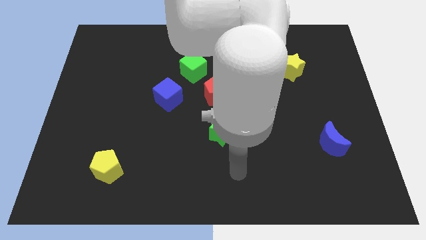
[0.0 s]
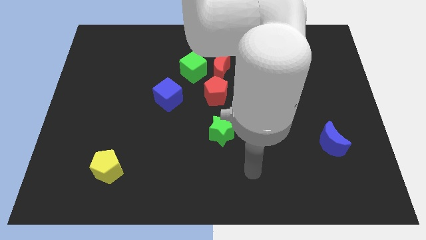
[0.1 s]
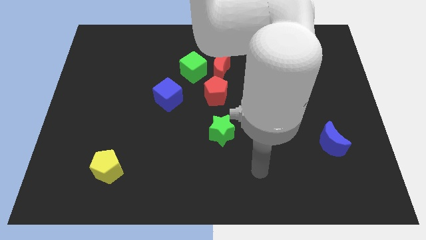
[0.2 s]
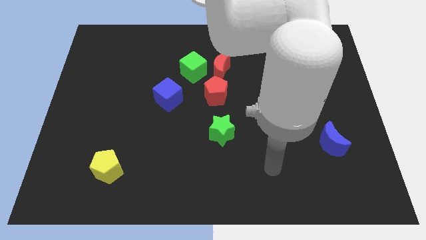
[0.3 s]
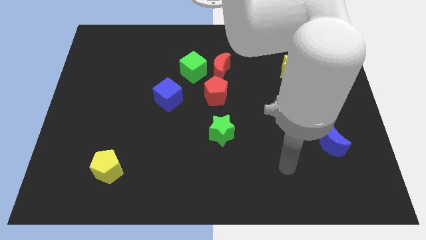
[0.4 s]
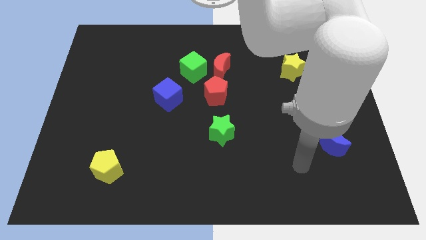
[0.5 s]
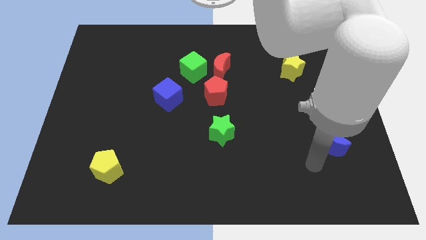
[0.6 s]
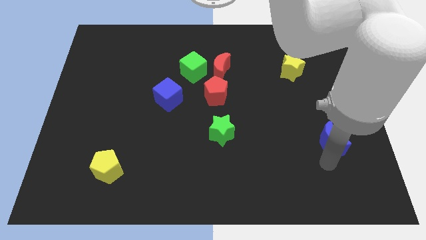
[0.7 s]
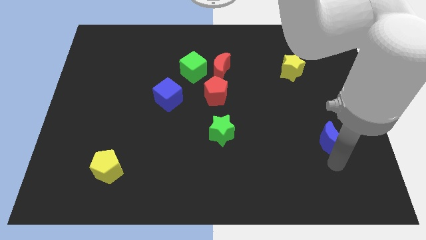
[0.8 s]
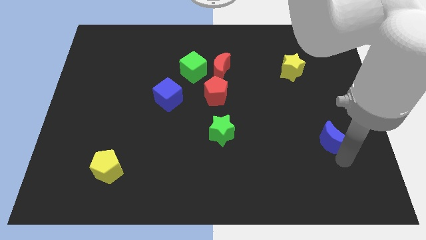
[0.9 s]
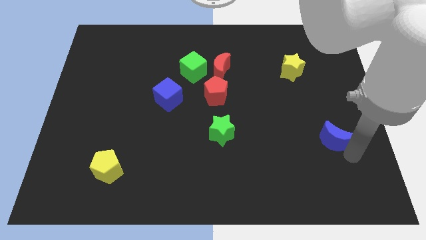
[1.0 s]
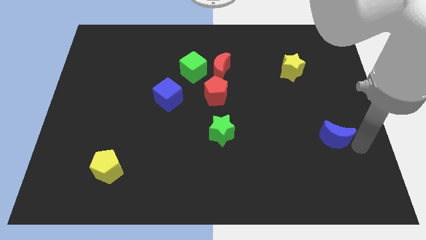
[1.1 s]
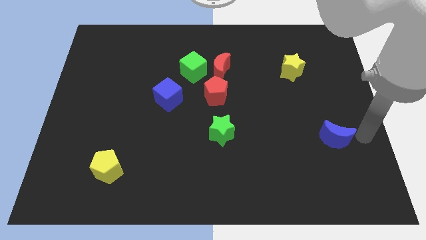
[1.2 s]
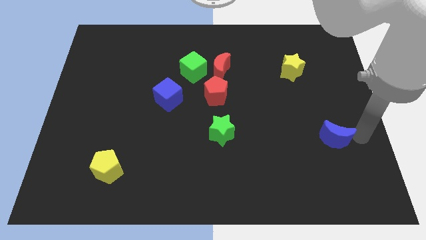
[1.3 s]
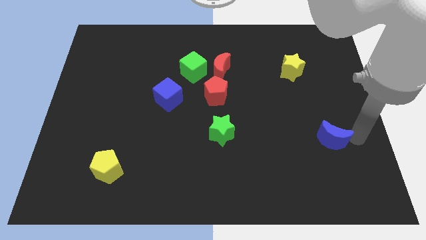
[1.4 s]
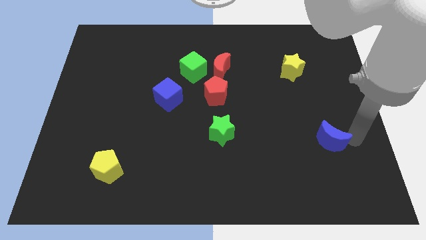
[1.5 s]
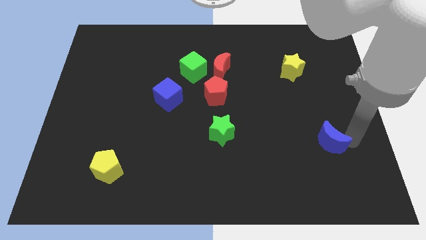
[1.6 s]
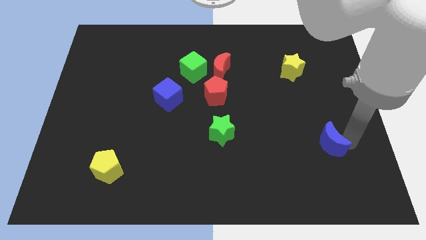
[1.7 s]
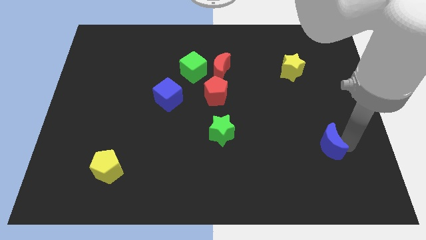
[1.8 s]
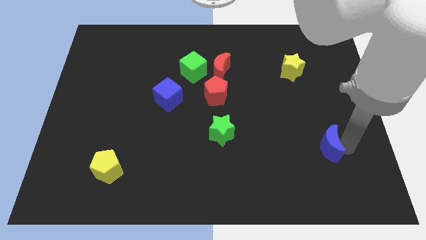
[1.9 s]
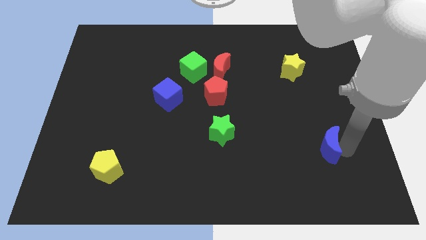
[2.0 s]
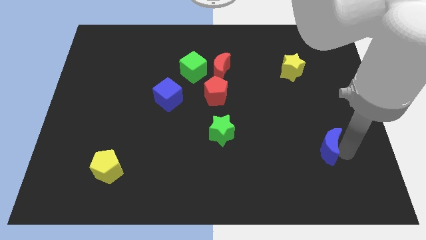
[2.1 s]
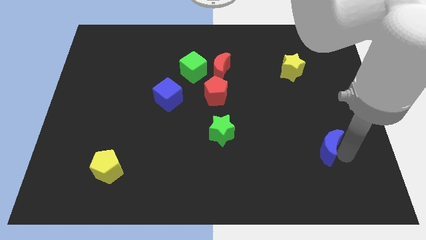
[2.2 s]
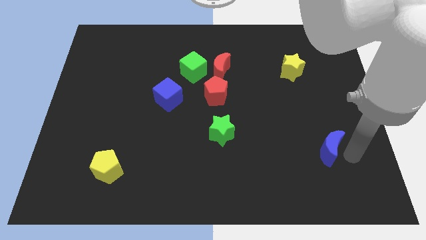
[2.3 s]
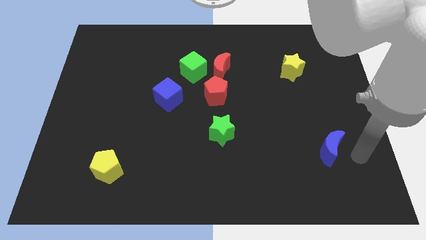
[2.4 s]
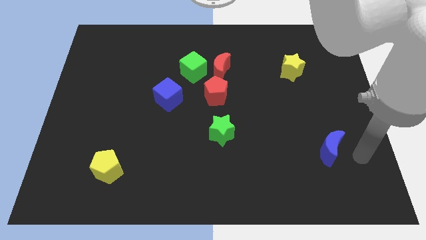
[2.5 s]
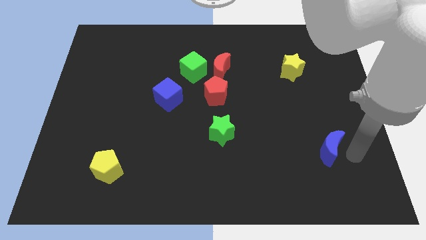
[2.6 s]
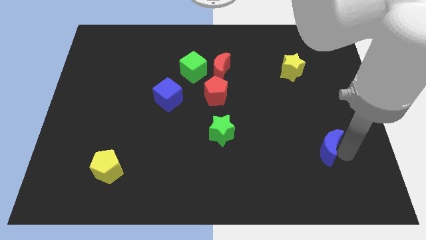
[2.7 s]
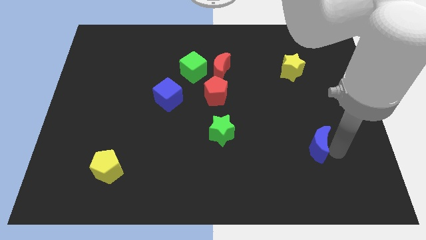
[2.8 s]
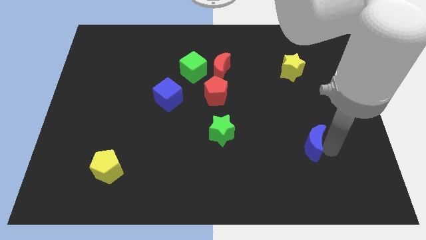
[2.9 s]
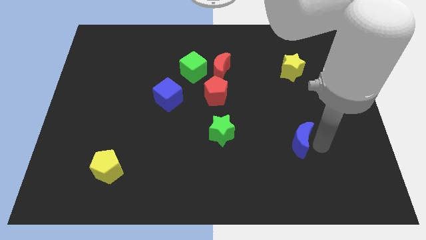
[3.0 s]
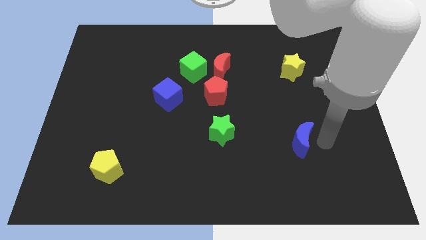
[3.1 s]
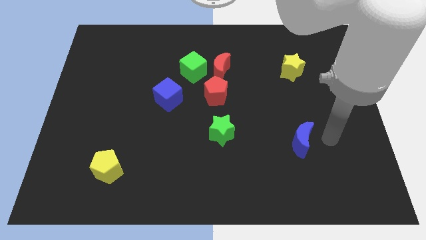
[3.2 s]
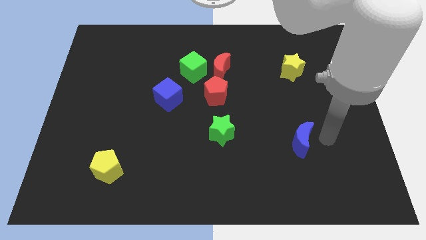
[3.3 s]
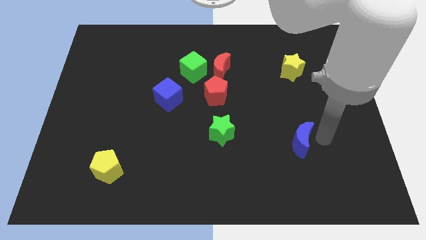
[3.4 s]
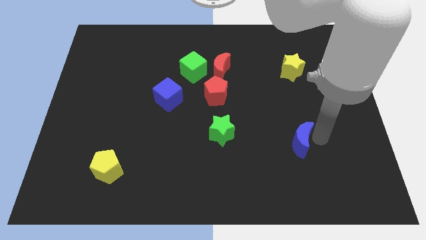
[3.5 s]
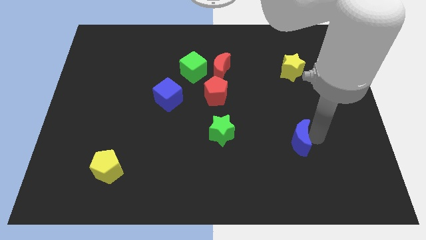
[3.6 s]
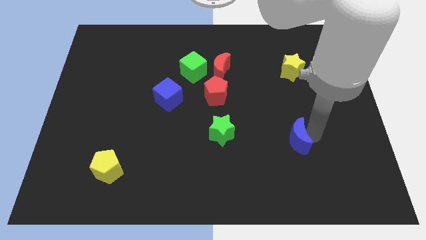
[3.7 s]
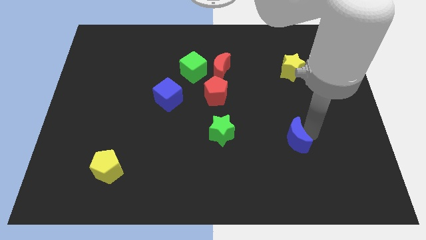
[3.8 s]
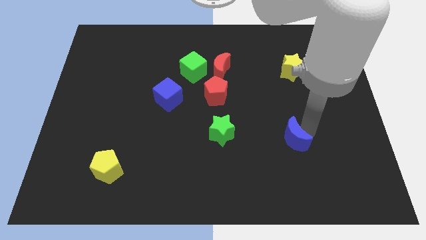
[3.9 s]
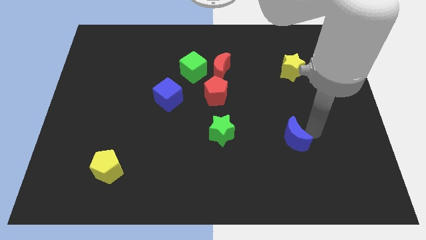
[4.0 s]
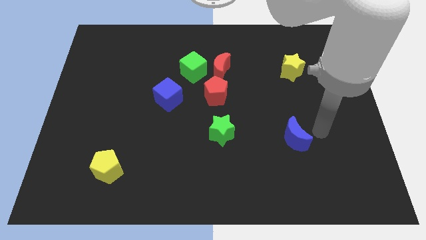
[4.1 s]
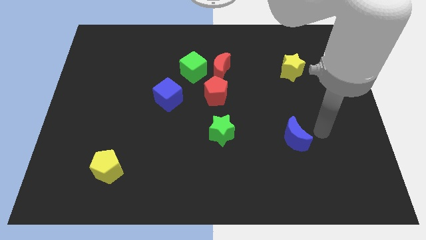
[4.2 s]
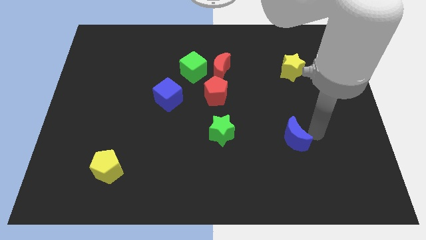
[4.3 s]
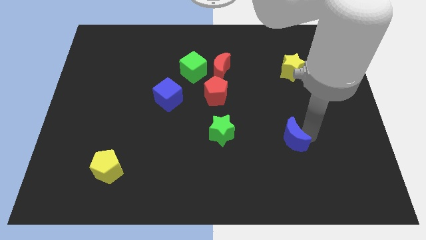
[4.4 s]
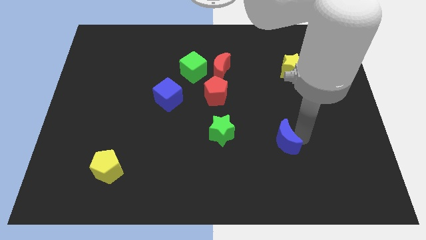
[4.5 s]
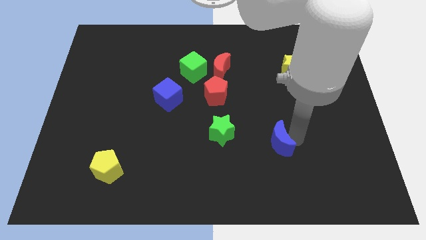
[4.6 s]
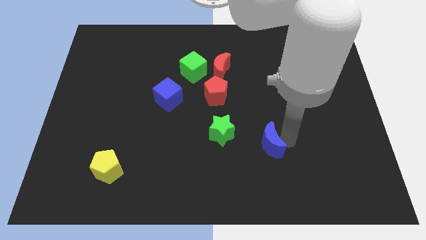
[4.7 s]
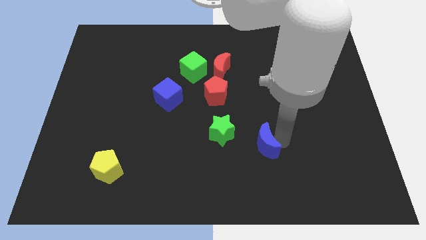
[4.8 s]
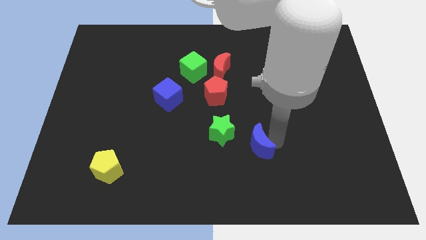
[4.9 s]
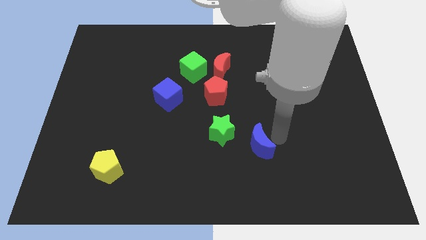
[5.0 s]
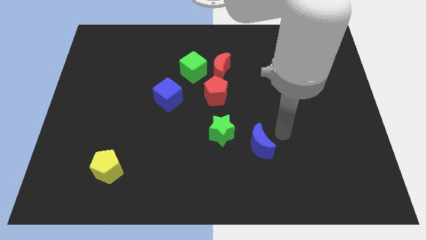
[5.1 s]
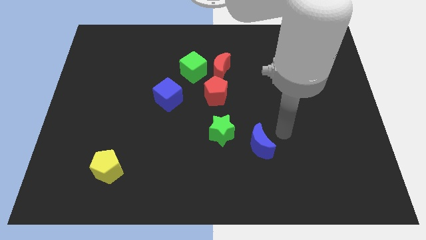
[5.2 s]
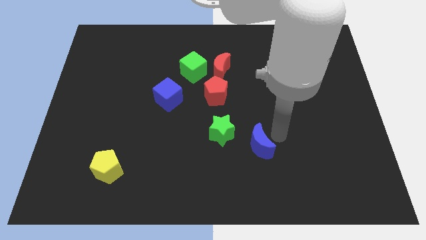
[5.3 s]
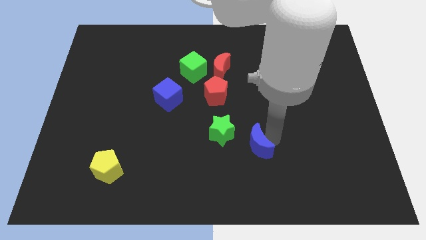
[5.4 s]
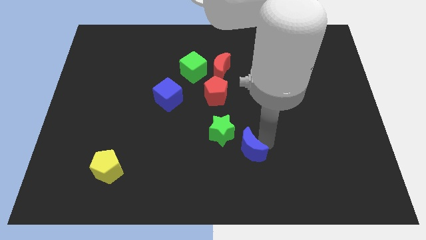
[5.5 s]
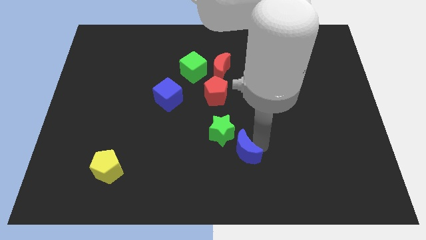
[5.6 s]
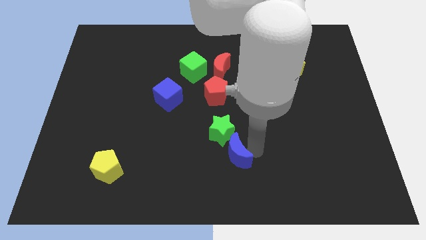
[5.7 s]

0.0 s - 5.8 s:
push the blue moon left

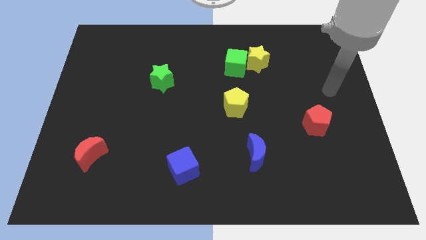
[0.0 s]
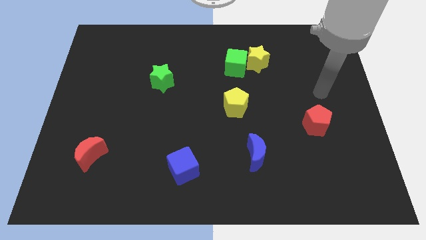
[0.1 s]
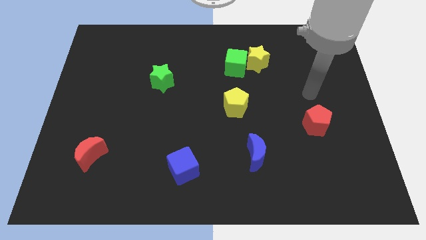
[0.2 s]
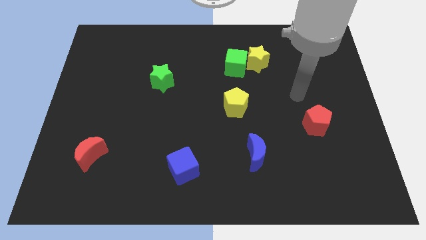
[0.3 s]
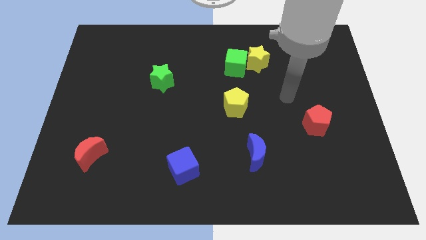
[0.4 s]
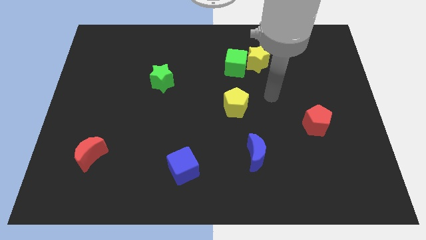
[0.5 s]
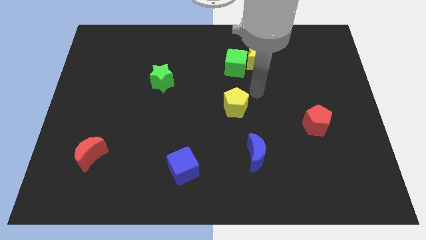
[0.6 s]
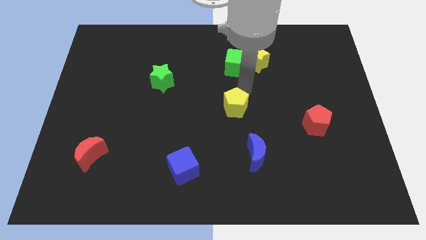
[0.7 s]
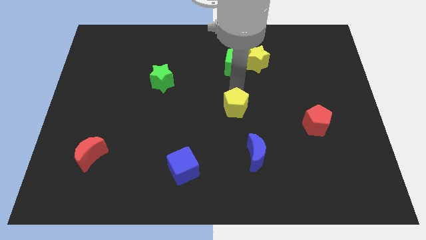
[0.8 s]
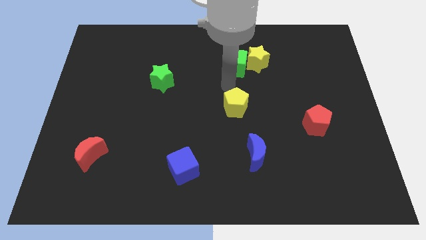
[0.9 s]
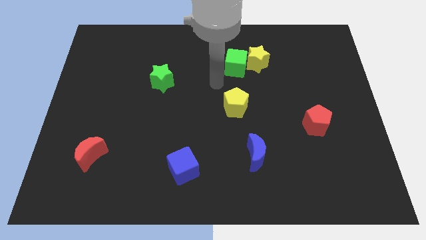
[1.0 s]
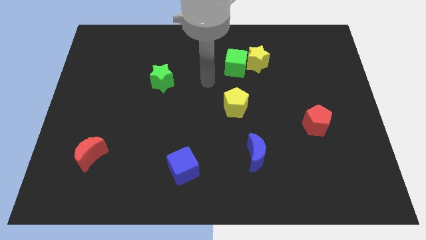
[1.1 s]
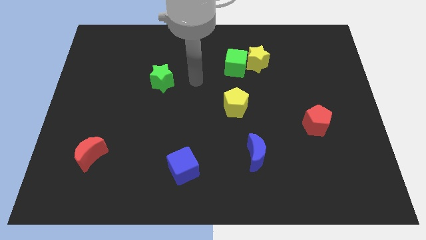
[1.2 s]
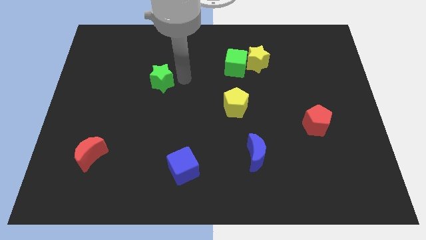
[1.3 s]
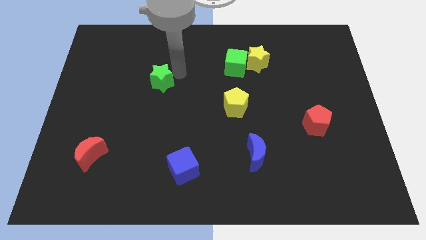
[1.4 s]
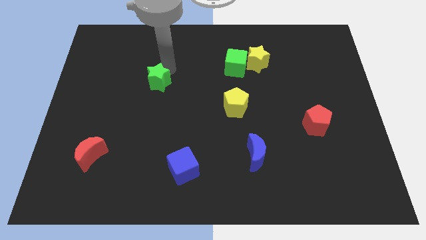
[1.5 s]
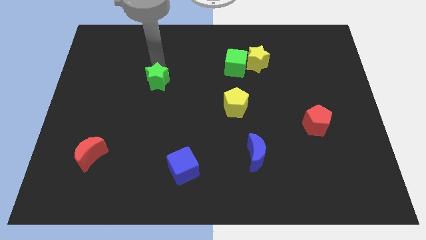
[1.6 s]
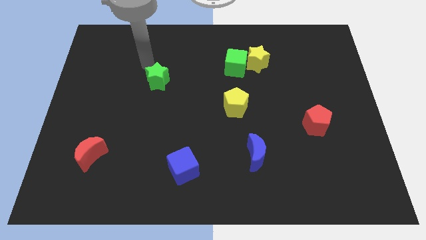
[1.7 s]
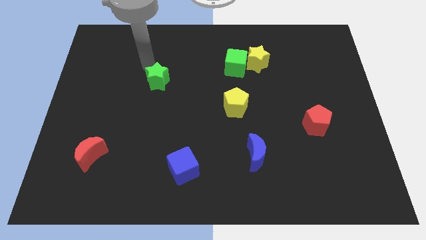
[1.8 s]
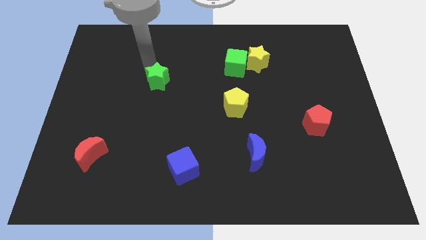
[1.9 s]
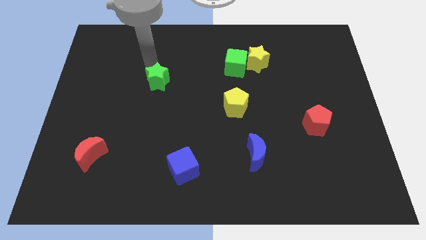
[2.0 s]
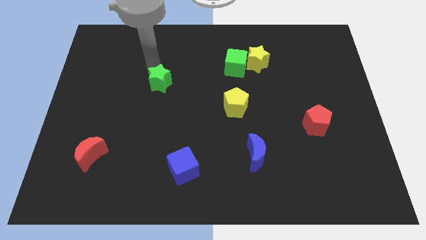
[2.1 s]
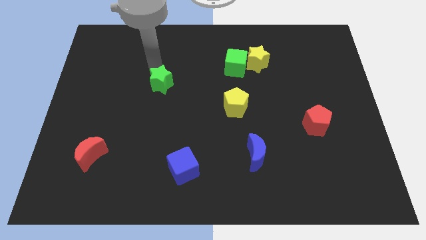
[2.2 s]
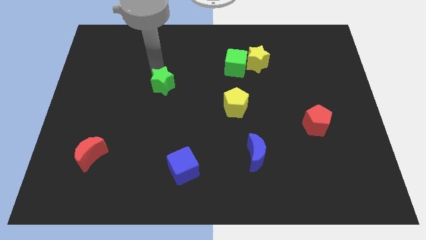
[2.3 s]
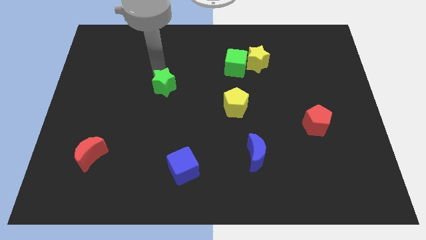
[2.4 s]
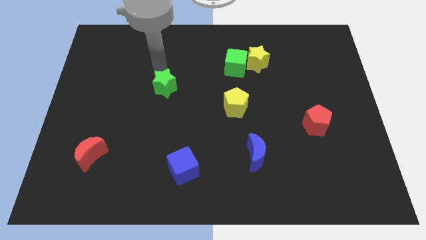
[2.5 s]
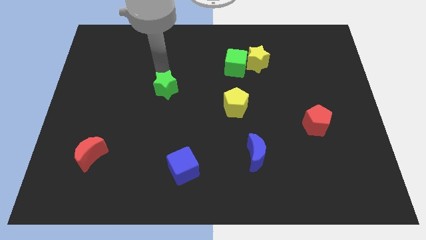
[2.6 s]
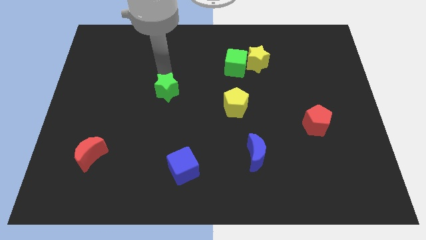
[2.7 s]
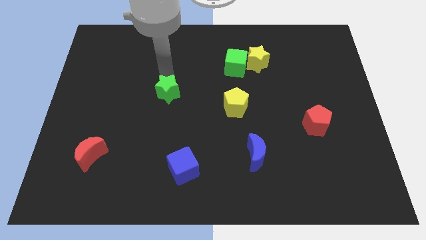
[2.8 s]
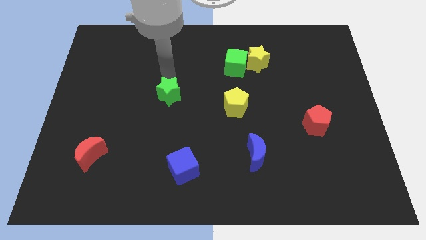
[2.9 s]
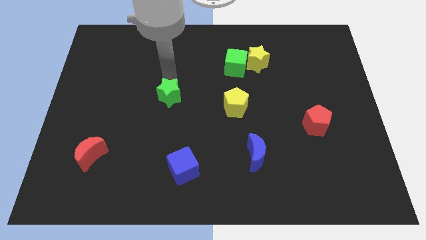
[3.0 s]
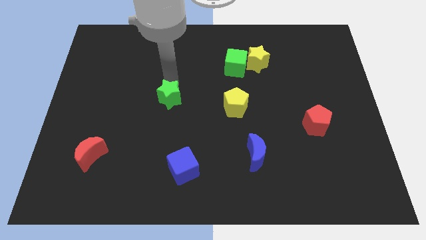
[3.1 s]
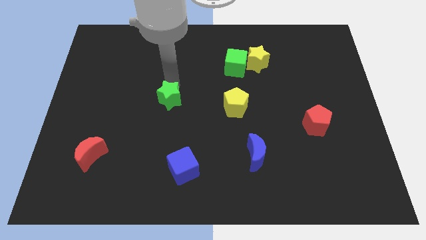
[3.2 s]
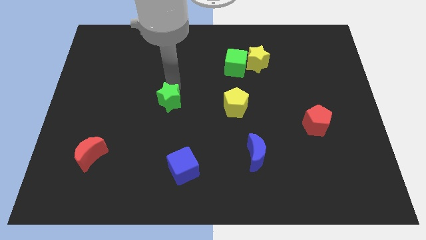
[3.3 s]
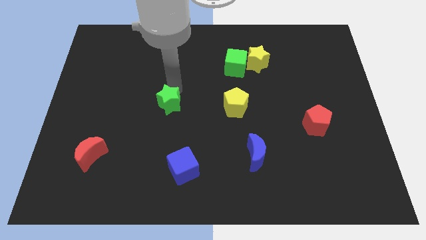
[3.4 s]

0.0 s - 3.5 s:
slide the green star a little downwards
